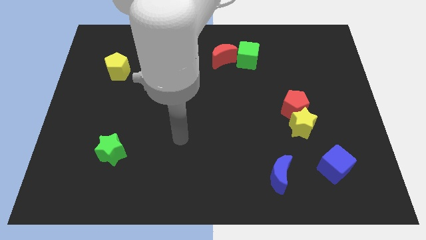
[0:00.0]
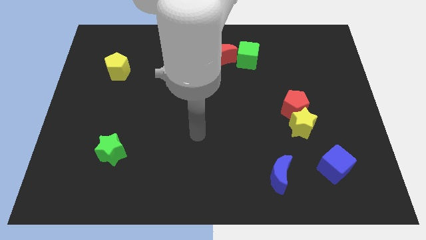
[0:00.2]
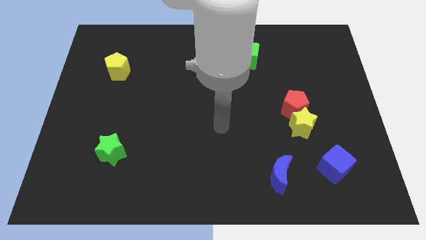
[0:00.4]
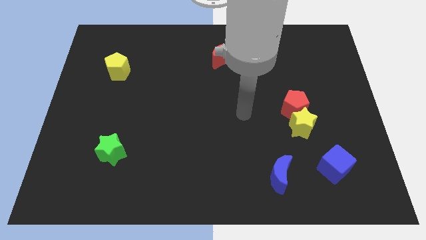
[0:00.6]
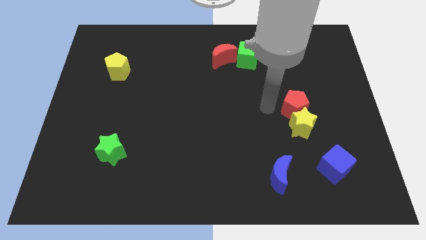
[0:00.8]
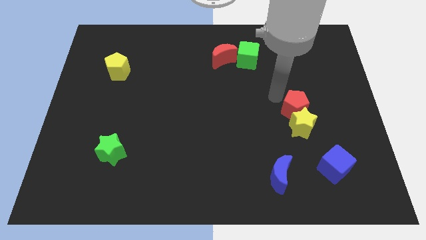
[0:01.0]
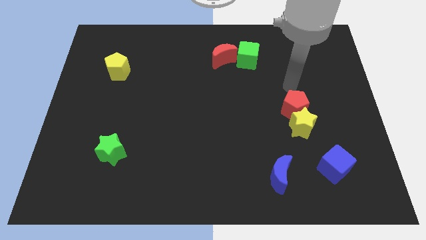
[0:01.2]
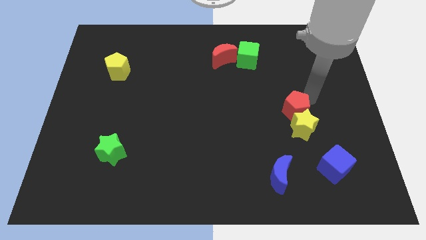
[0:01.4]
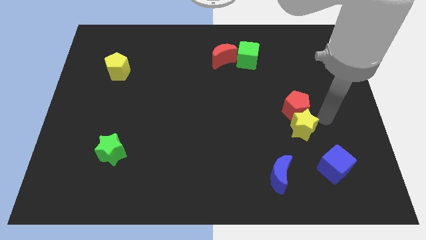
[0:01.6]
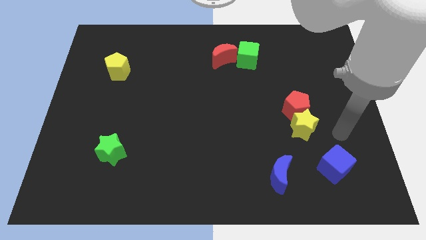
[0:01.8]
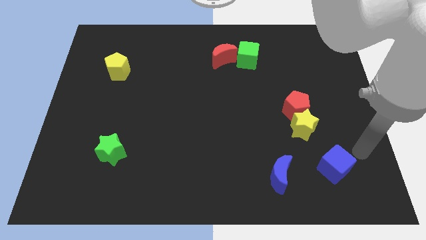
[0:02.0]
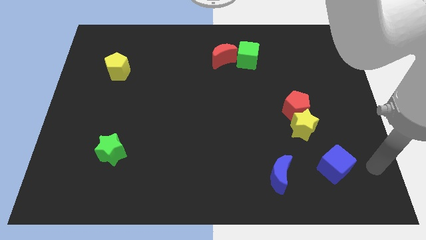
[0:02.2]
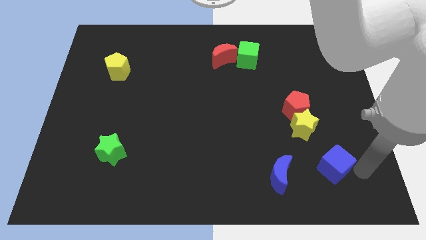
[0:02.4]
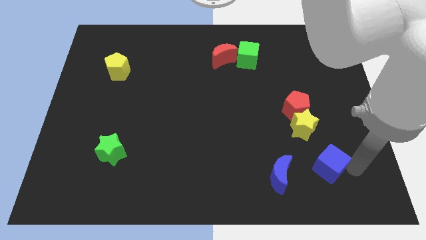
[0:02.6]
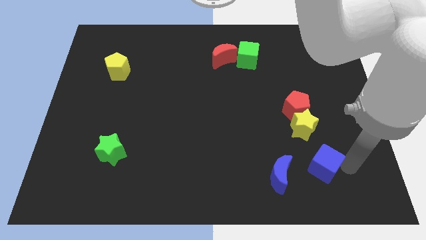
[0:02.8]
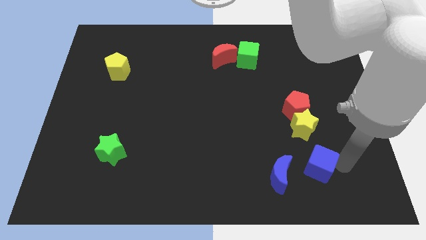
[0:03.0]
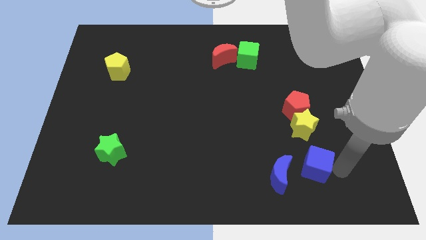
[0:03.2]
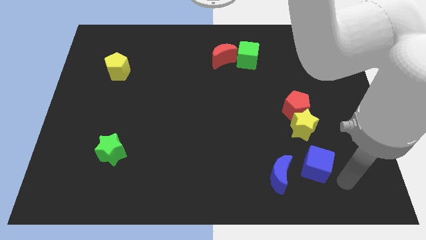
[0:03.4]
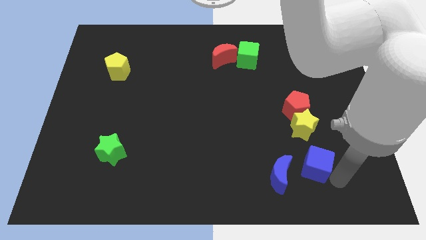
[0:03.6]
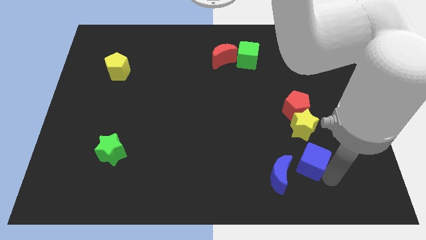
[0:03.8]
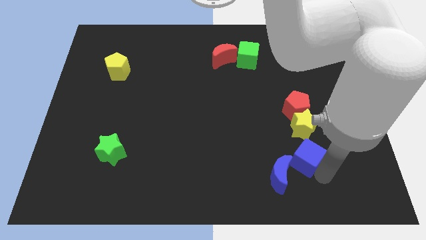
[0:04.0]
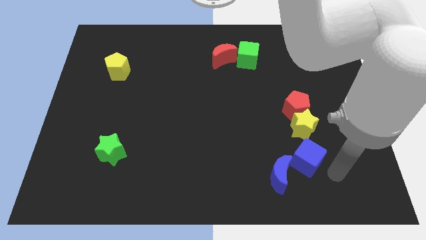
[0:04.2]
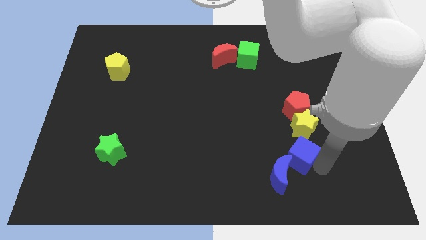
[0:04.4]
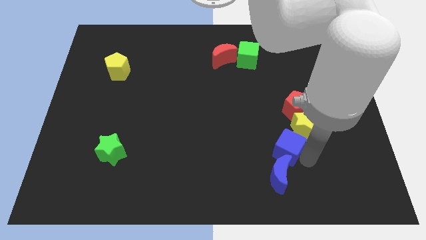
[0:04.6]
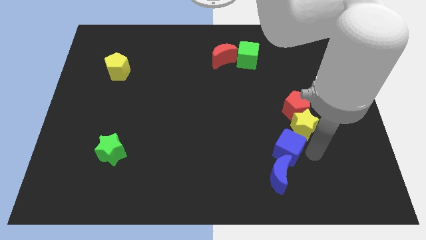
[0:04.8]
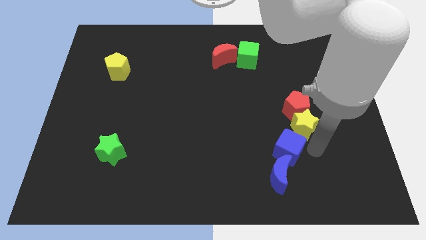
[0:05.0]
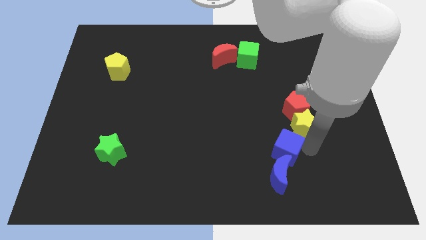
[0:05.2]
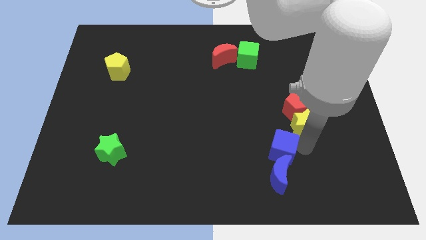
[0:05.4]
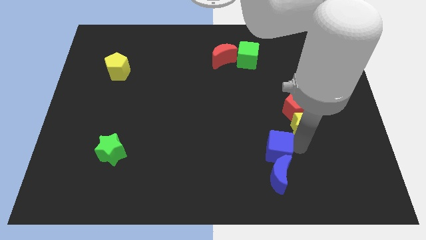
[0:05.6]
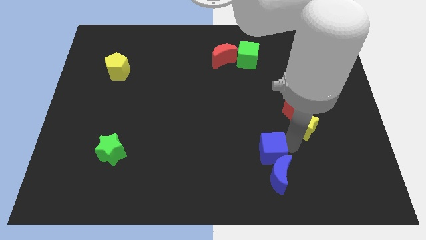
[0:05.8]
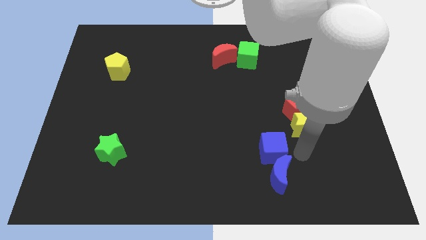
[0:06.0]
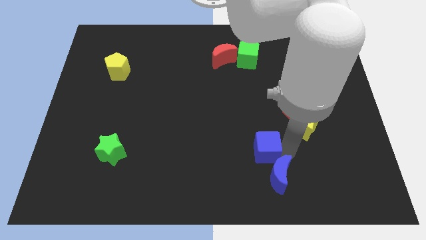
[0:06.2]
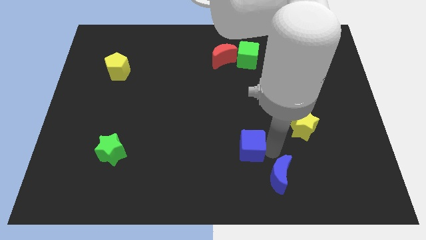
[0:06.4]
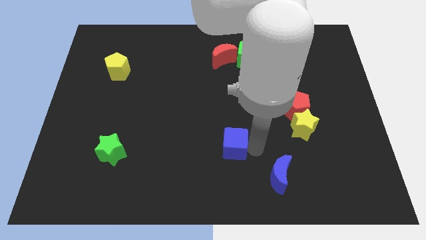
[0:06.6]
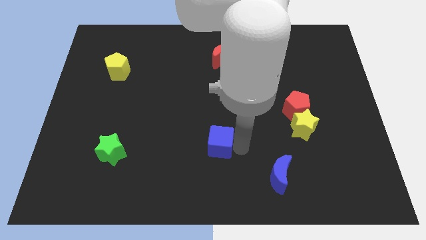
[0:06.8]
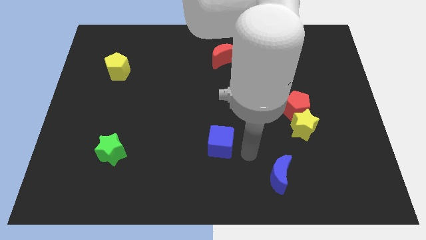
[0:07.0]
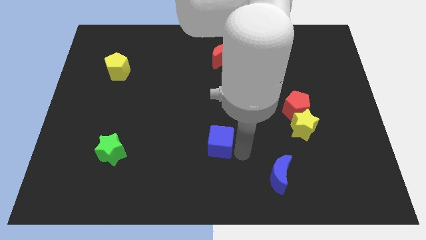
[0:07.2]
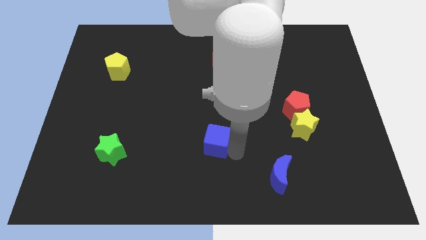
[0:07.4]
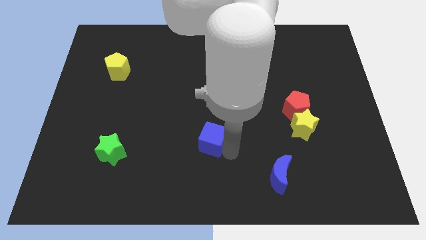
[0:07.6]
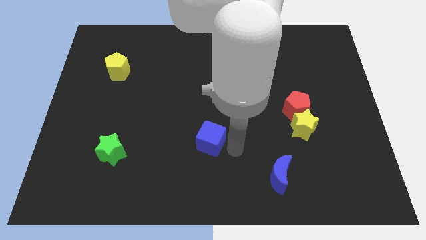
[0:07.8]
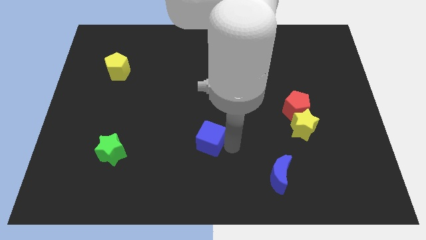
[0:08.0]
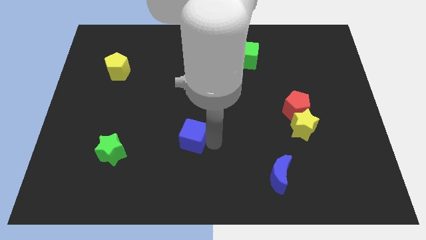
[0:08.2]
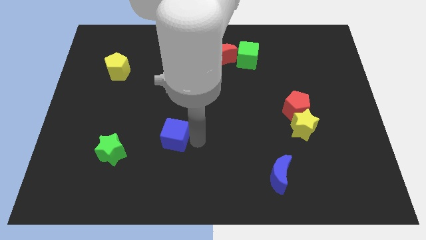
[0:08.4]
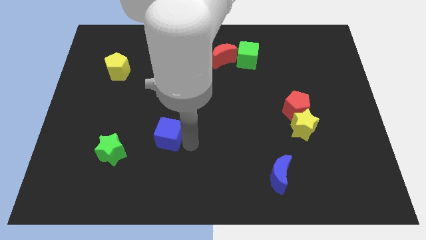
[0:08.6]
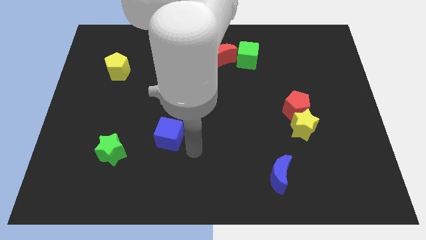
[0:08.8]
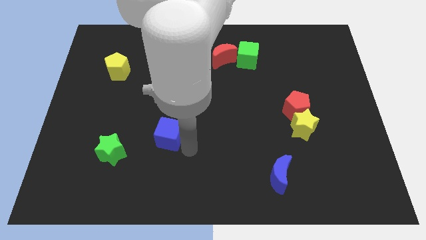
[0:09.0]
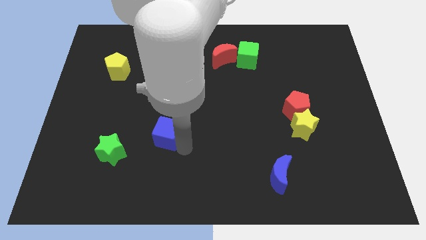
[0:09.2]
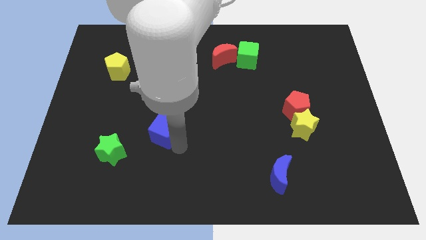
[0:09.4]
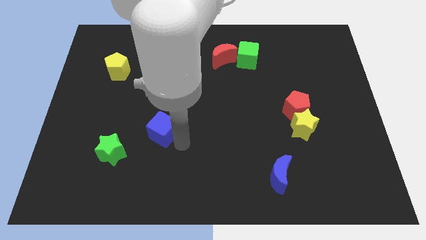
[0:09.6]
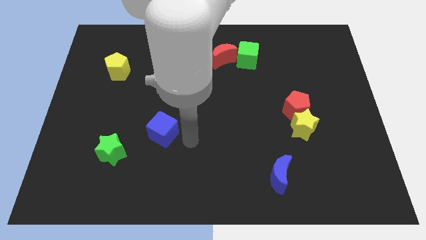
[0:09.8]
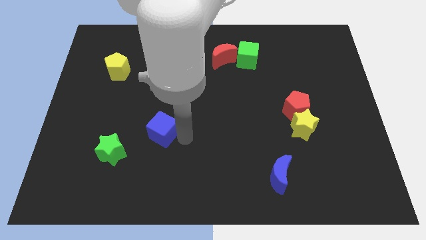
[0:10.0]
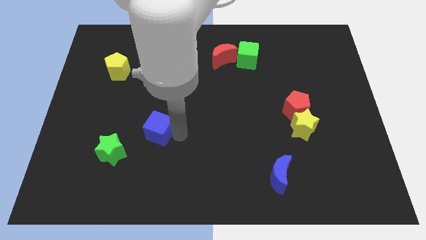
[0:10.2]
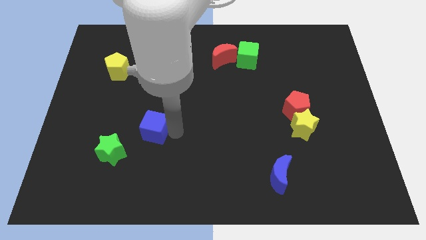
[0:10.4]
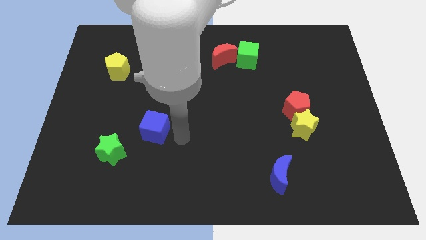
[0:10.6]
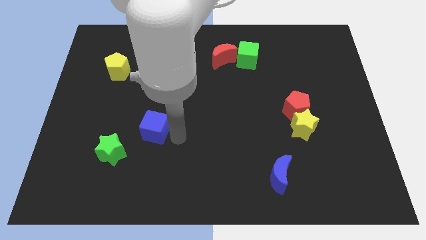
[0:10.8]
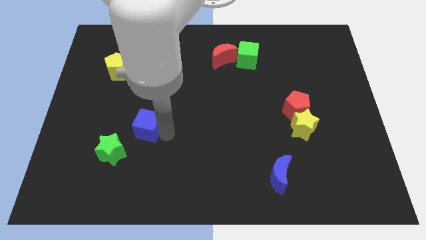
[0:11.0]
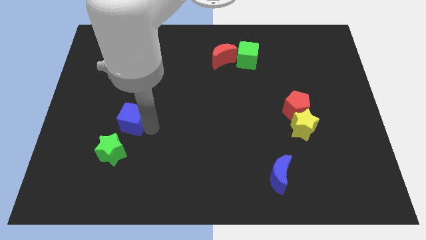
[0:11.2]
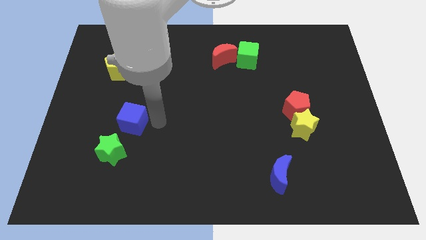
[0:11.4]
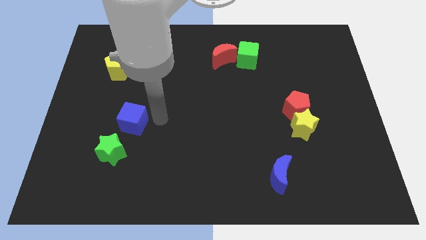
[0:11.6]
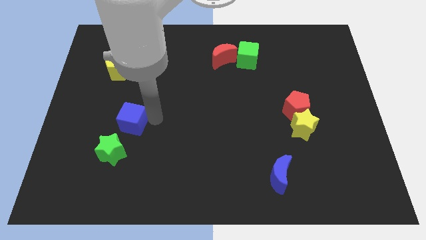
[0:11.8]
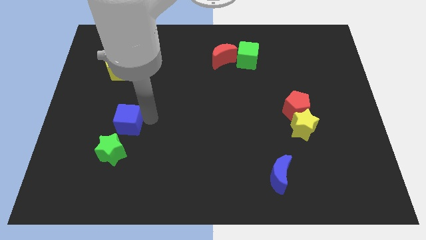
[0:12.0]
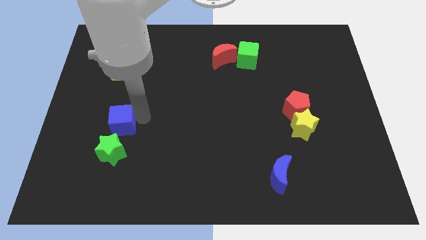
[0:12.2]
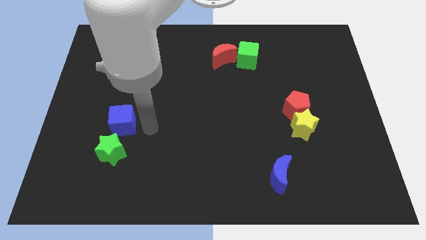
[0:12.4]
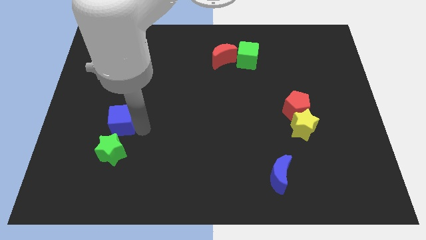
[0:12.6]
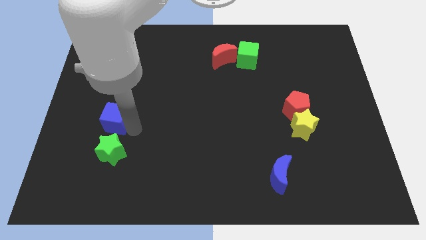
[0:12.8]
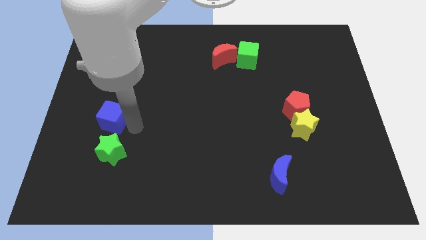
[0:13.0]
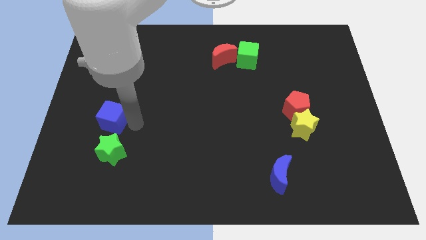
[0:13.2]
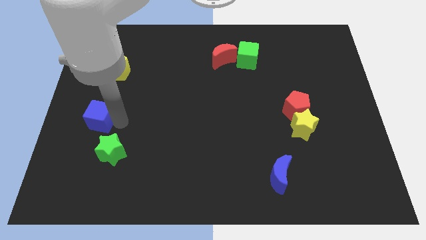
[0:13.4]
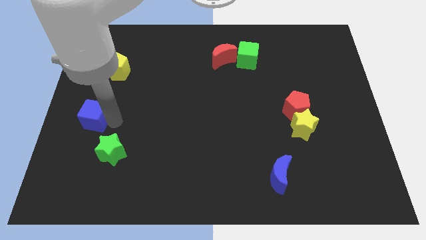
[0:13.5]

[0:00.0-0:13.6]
move the blue cube to the left side
